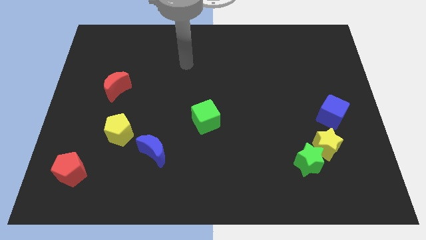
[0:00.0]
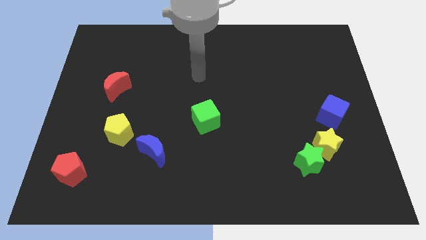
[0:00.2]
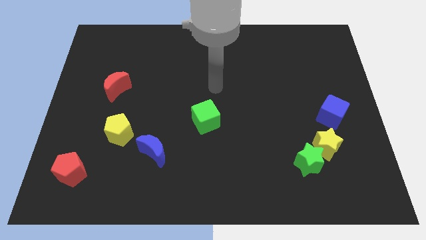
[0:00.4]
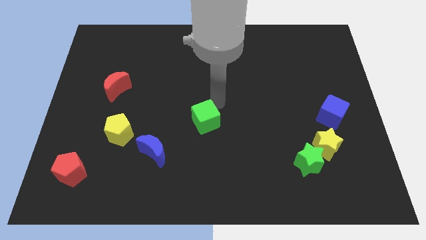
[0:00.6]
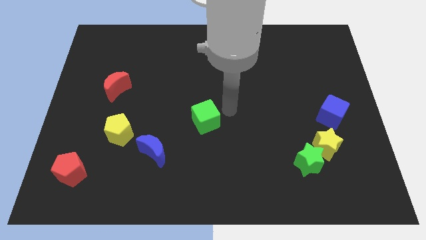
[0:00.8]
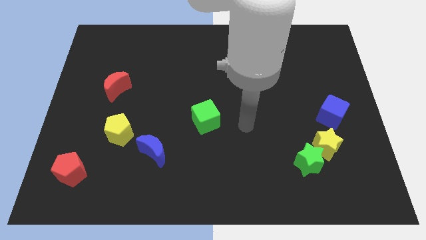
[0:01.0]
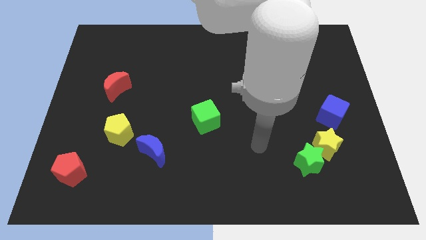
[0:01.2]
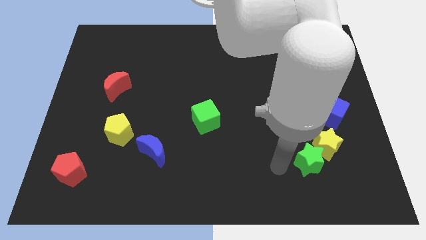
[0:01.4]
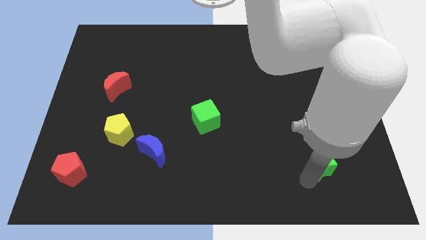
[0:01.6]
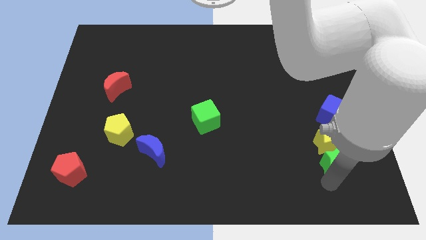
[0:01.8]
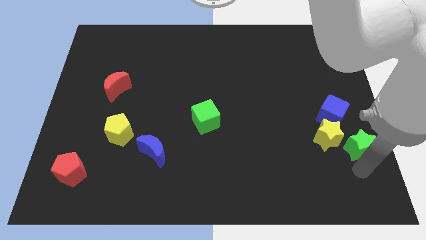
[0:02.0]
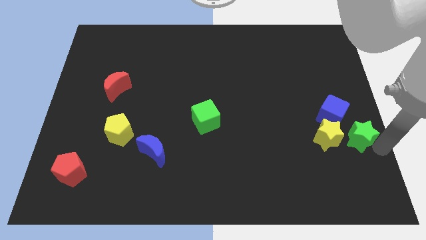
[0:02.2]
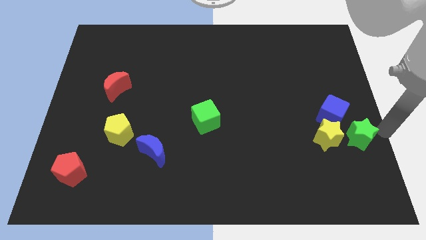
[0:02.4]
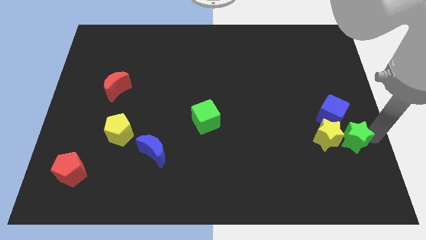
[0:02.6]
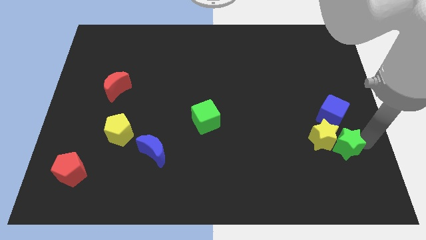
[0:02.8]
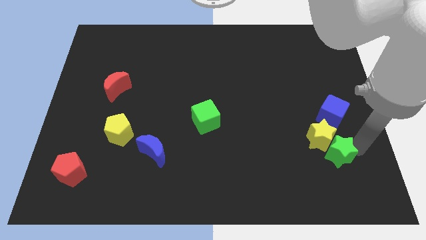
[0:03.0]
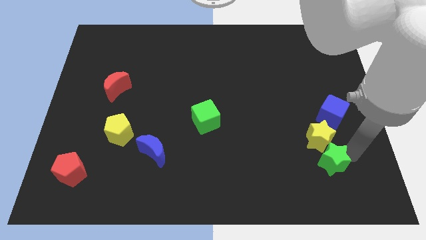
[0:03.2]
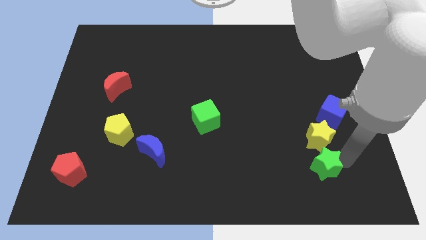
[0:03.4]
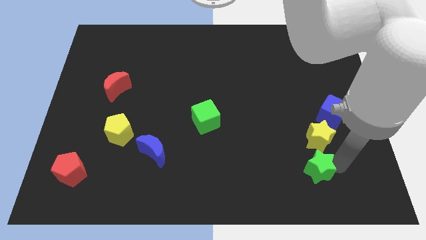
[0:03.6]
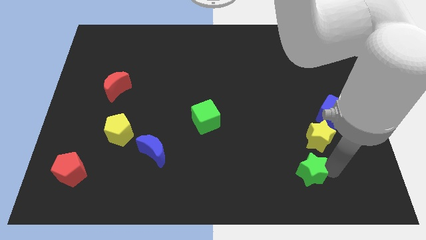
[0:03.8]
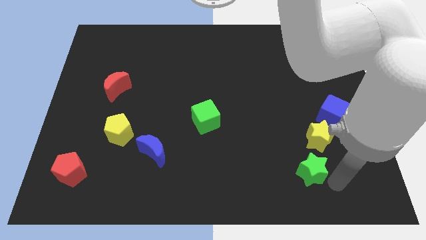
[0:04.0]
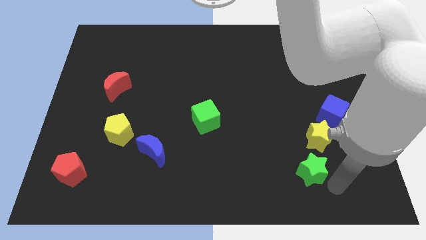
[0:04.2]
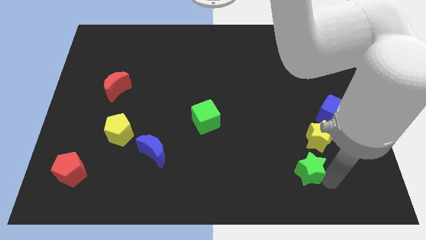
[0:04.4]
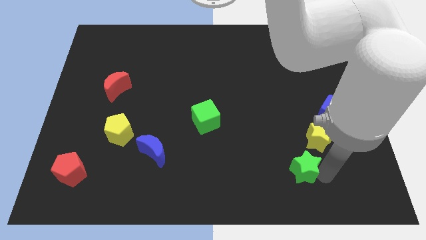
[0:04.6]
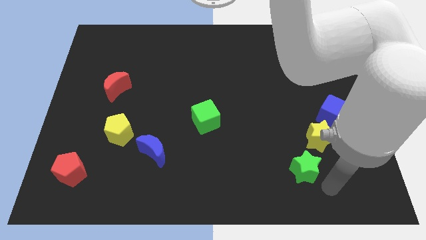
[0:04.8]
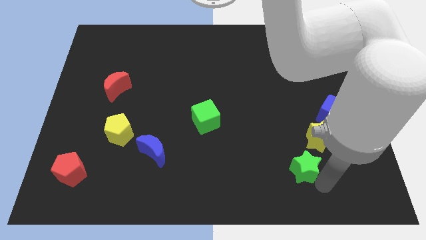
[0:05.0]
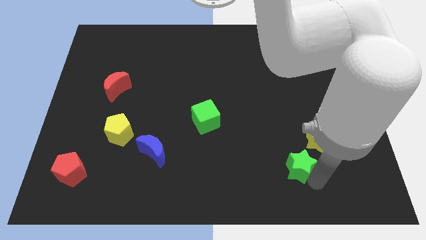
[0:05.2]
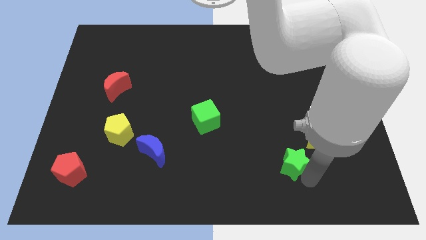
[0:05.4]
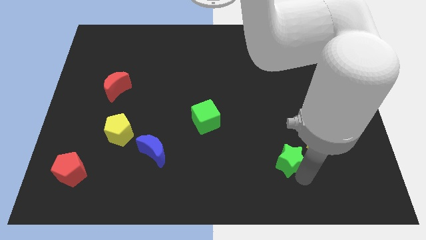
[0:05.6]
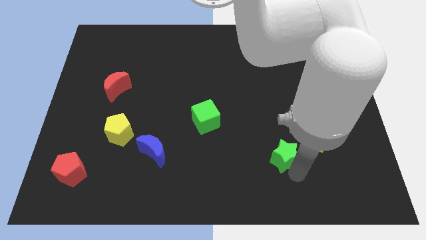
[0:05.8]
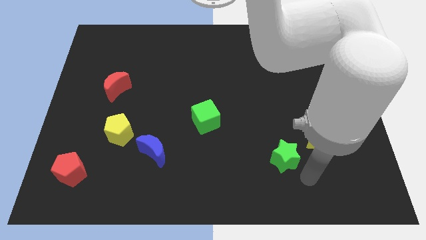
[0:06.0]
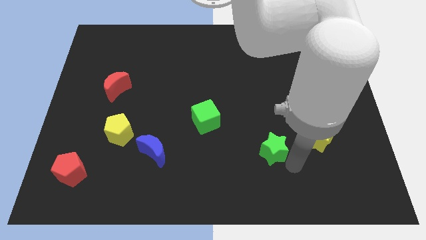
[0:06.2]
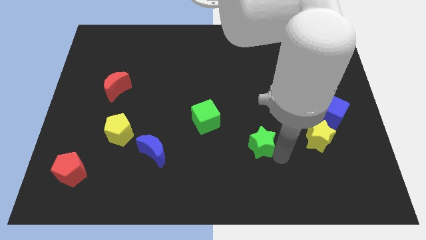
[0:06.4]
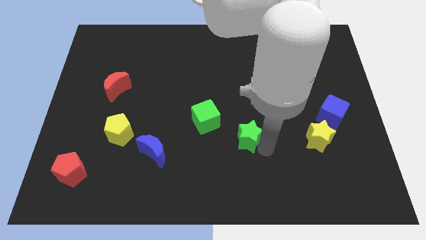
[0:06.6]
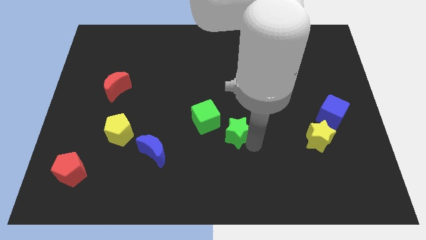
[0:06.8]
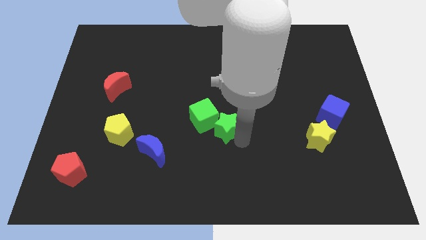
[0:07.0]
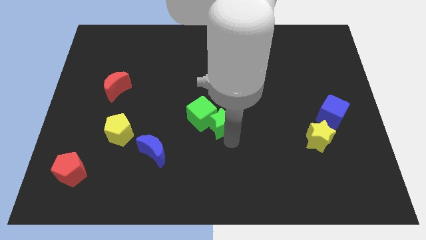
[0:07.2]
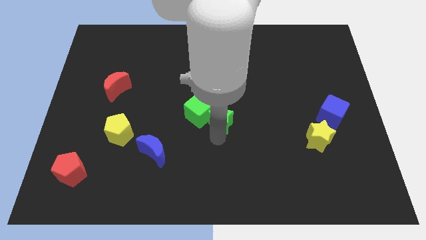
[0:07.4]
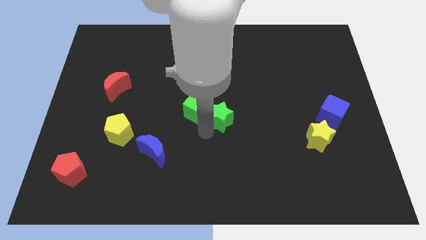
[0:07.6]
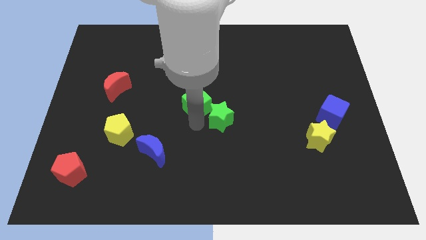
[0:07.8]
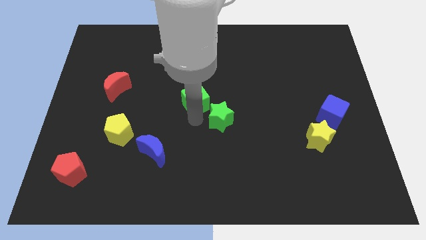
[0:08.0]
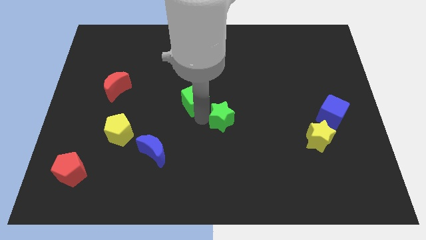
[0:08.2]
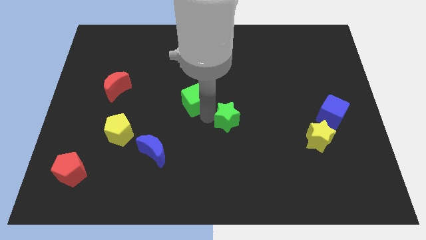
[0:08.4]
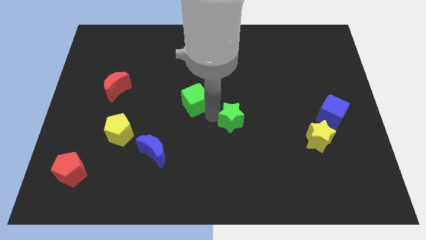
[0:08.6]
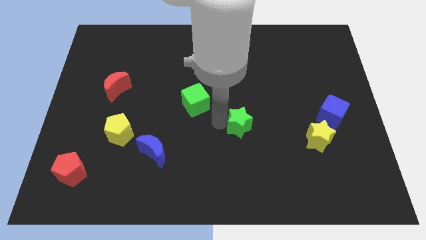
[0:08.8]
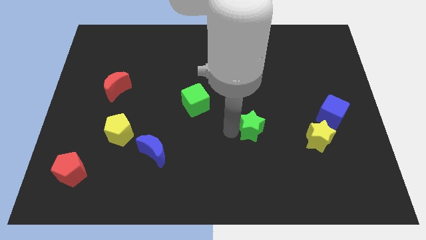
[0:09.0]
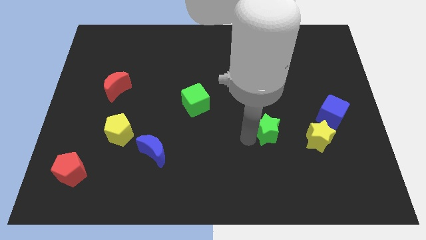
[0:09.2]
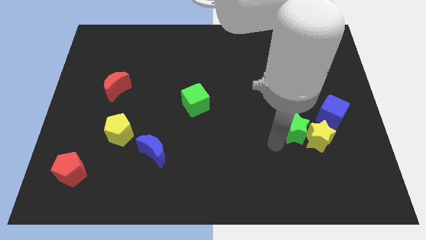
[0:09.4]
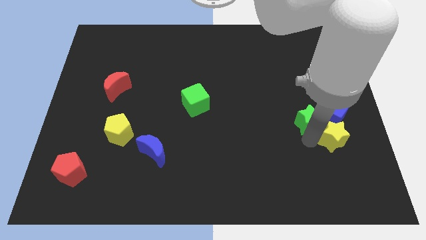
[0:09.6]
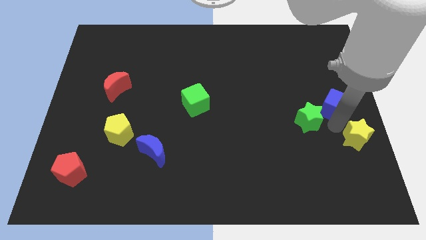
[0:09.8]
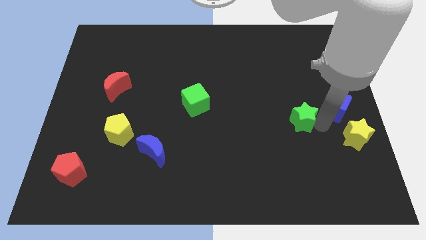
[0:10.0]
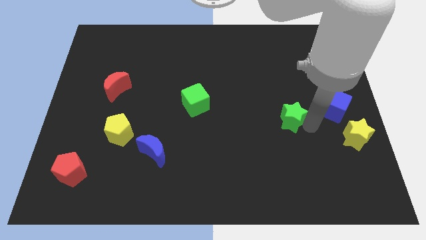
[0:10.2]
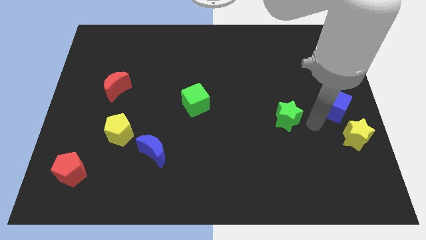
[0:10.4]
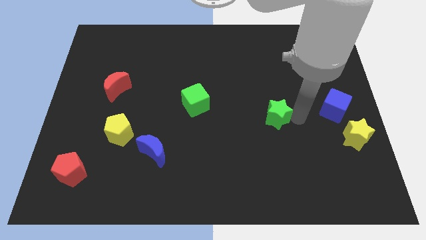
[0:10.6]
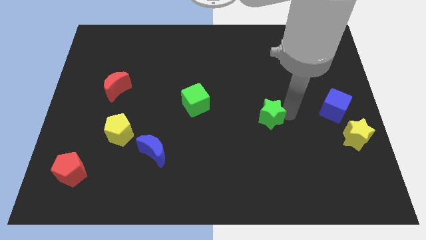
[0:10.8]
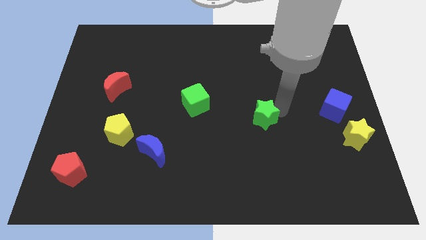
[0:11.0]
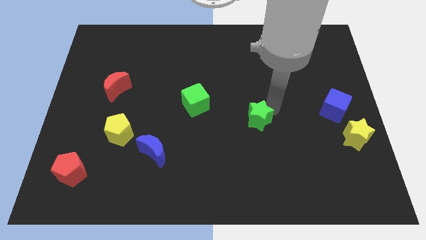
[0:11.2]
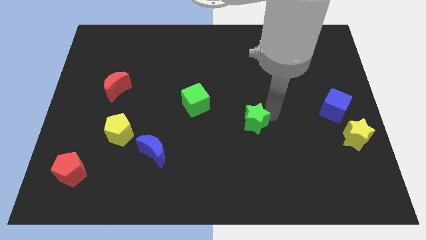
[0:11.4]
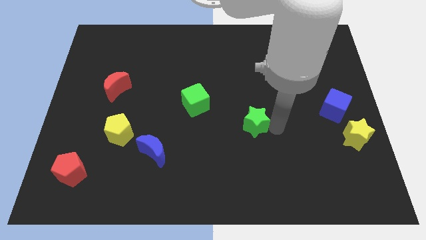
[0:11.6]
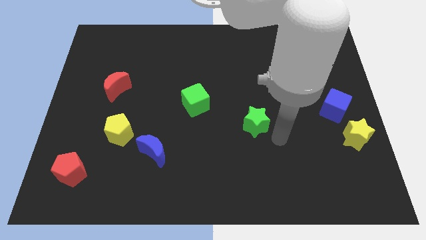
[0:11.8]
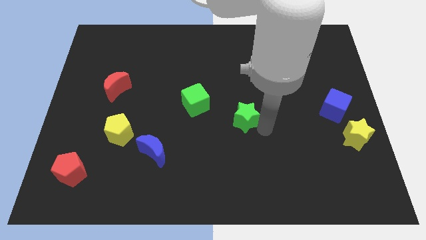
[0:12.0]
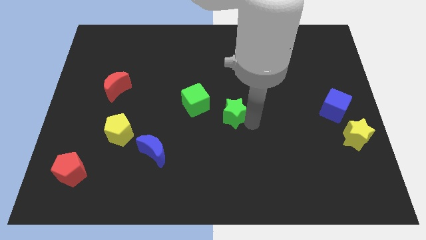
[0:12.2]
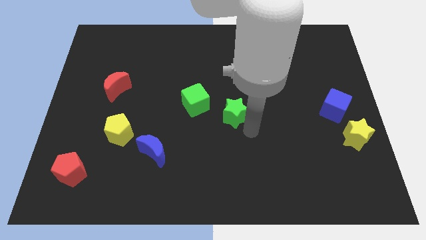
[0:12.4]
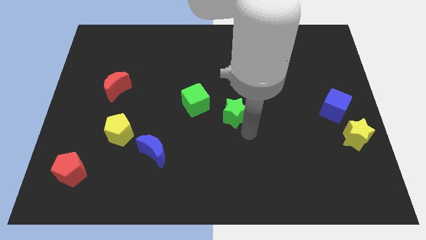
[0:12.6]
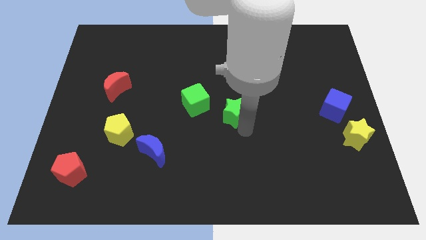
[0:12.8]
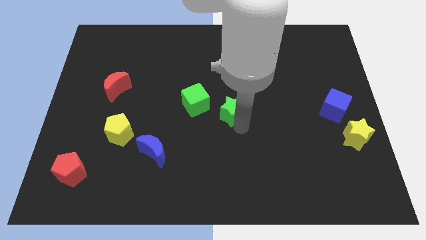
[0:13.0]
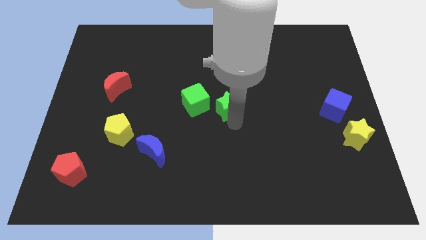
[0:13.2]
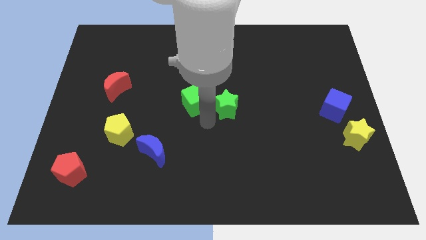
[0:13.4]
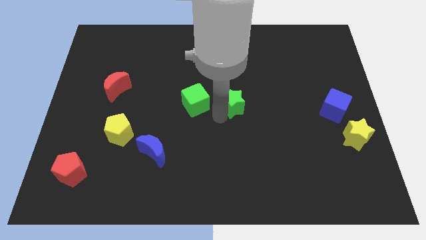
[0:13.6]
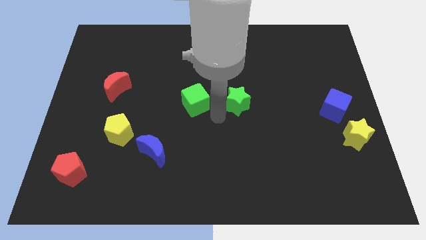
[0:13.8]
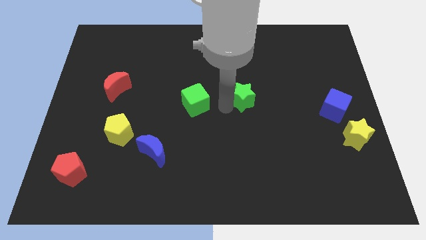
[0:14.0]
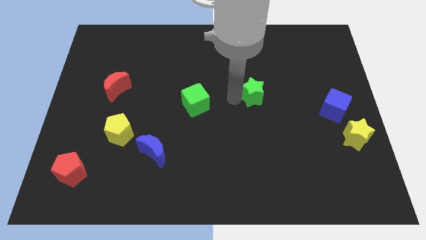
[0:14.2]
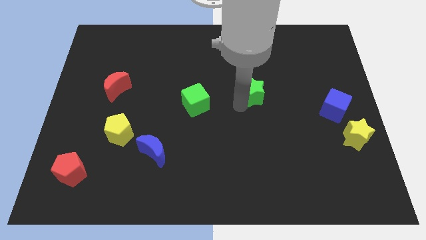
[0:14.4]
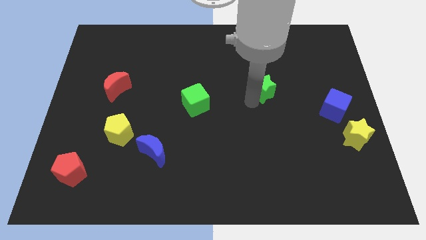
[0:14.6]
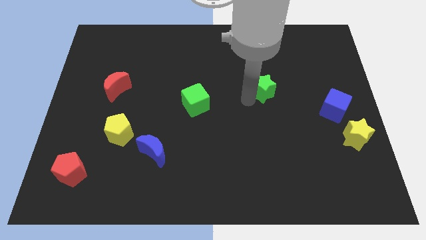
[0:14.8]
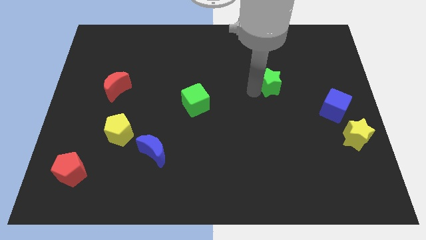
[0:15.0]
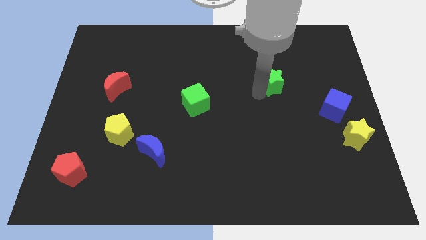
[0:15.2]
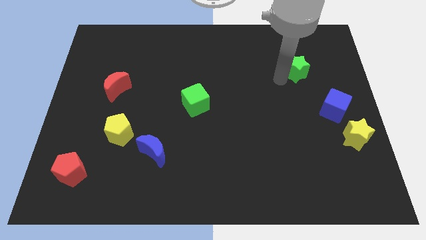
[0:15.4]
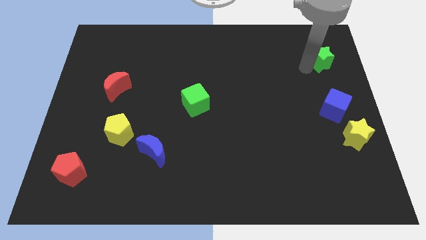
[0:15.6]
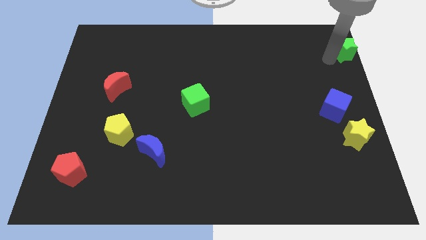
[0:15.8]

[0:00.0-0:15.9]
put the green star to the top right of the board
